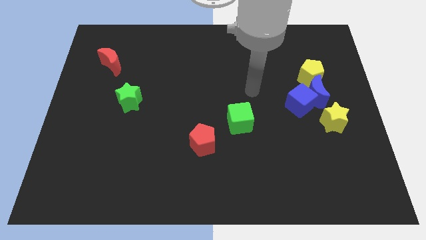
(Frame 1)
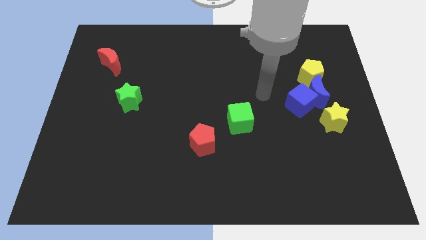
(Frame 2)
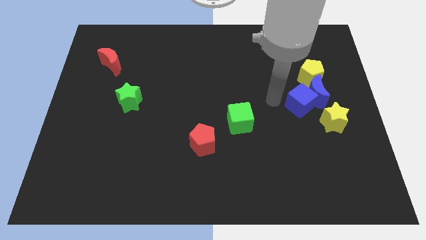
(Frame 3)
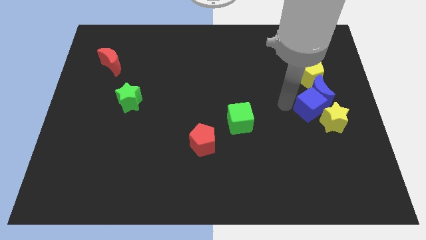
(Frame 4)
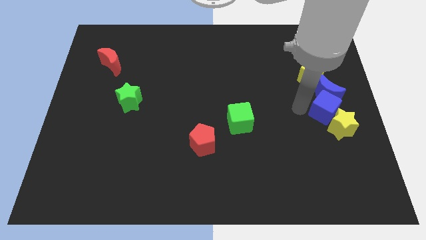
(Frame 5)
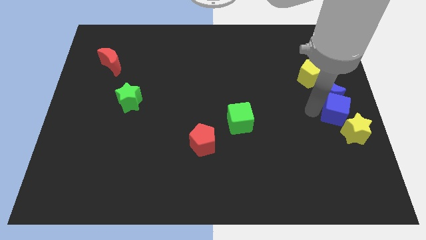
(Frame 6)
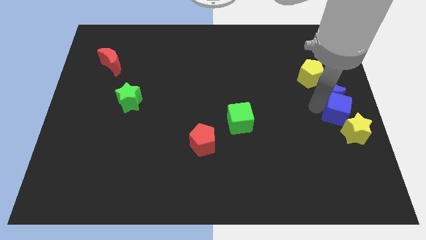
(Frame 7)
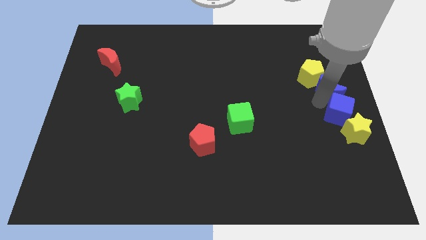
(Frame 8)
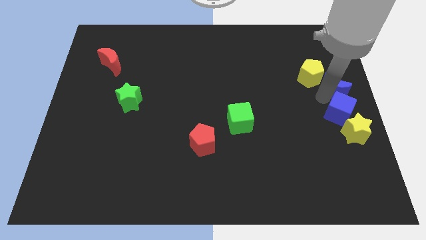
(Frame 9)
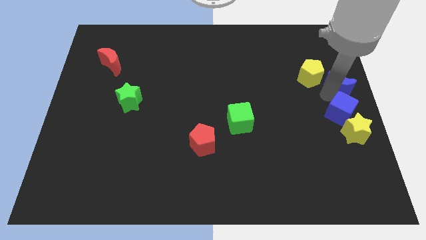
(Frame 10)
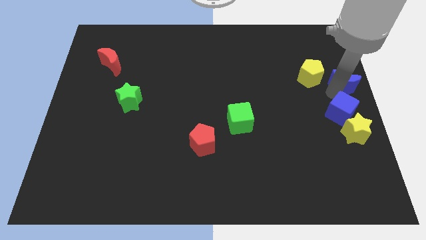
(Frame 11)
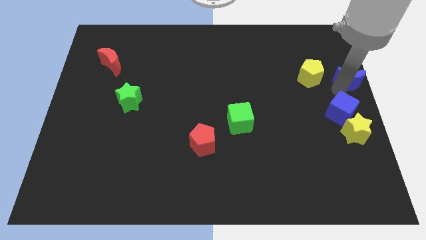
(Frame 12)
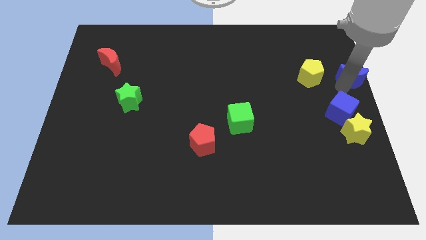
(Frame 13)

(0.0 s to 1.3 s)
separate the blue moon from the group of blocks

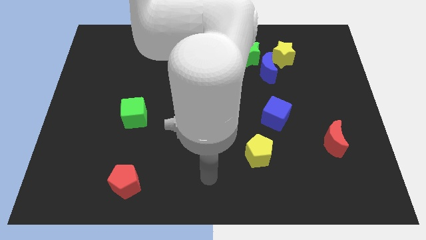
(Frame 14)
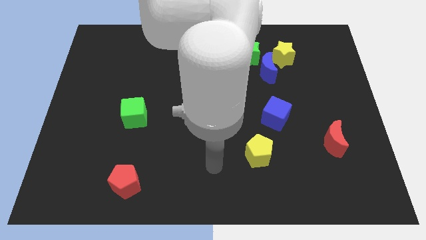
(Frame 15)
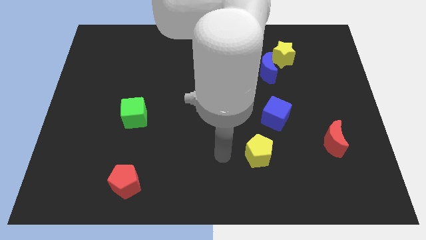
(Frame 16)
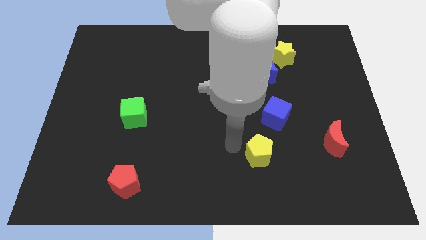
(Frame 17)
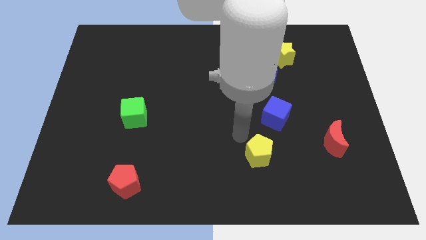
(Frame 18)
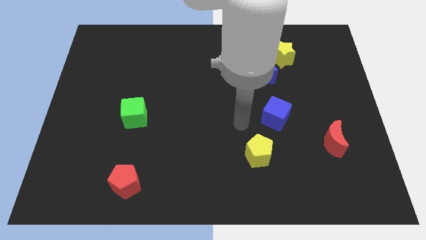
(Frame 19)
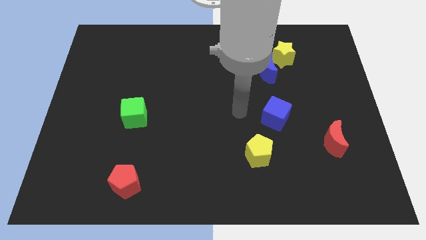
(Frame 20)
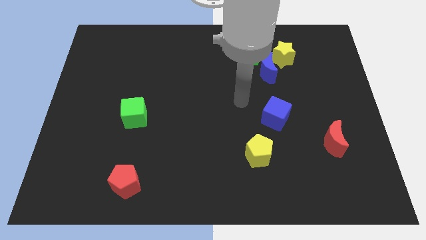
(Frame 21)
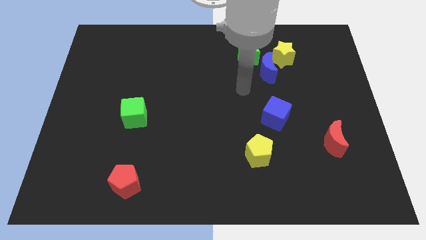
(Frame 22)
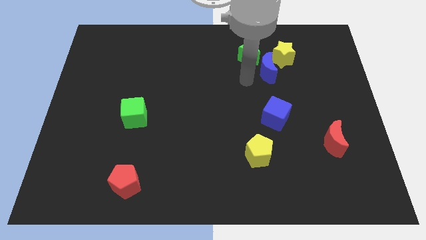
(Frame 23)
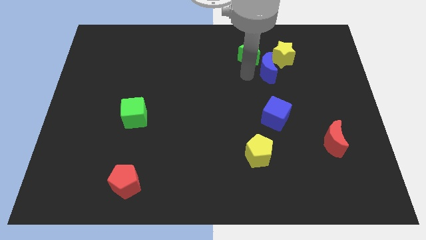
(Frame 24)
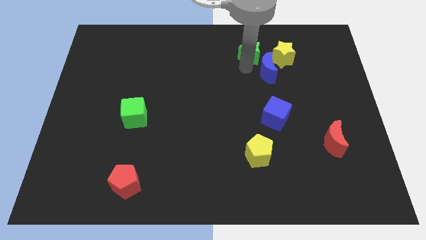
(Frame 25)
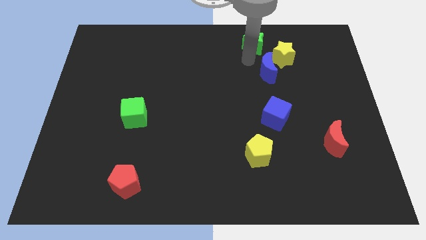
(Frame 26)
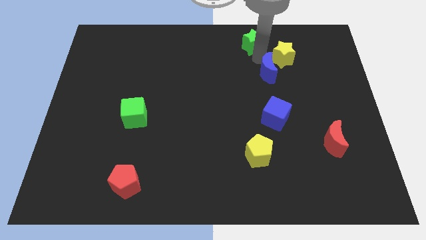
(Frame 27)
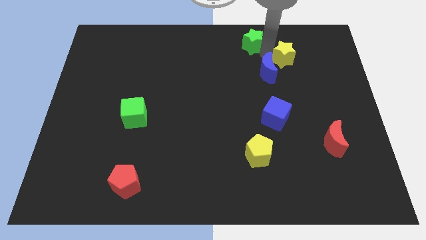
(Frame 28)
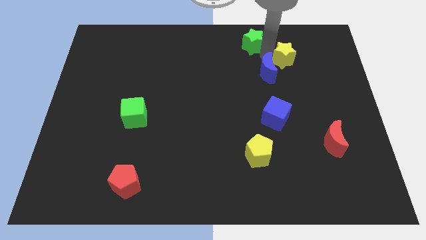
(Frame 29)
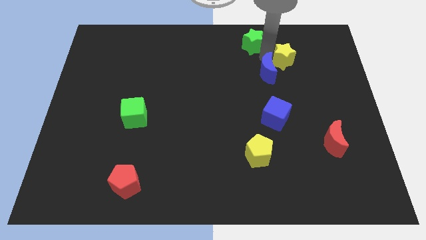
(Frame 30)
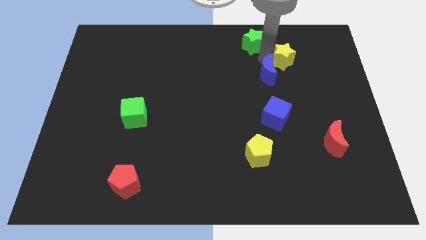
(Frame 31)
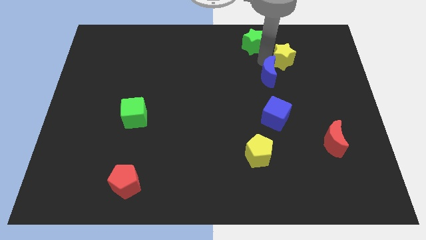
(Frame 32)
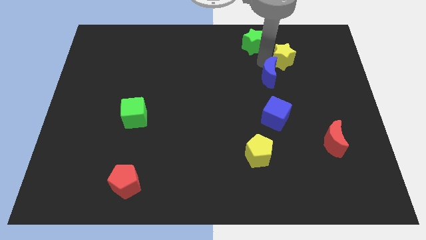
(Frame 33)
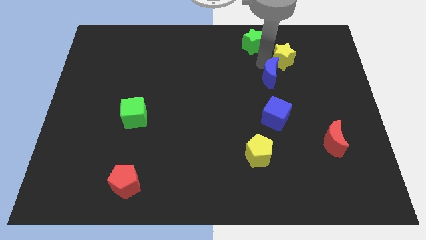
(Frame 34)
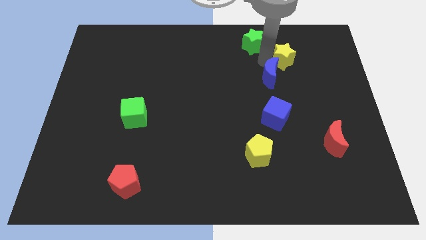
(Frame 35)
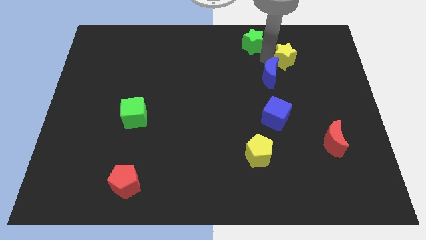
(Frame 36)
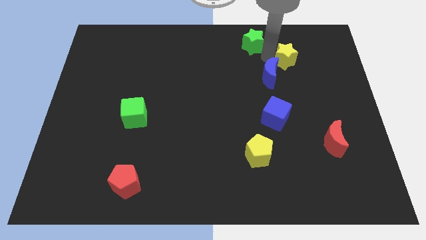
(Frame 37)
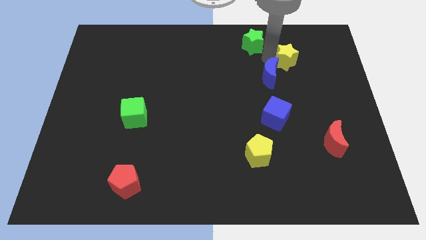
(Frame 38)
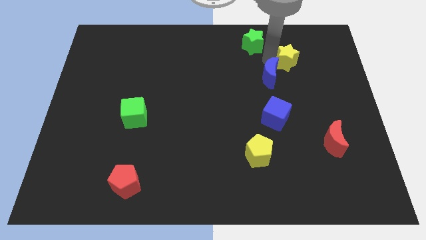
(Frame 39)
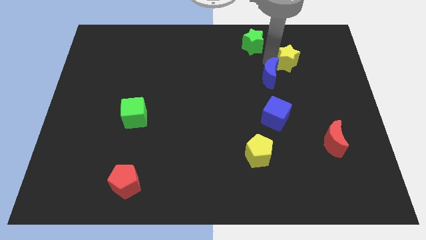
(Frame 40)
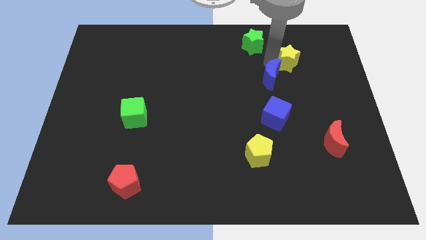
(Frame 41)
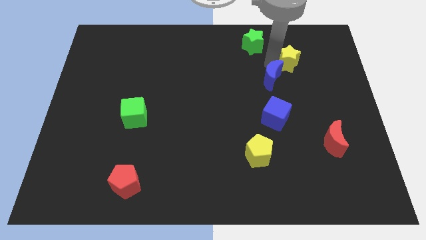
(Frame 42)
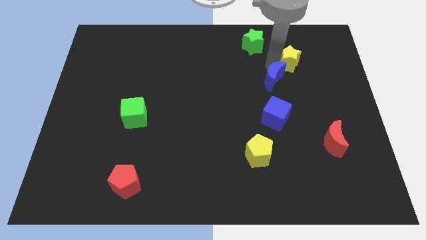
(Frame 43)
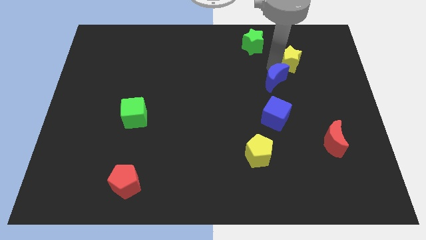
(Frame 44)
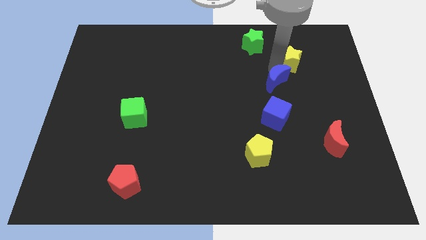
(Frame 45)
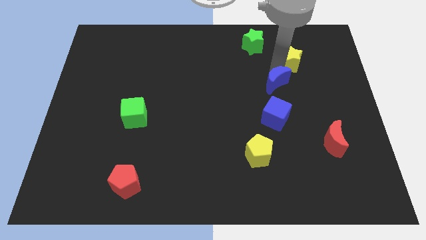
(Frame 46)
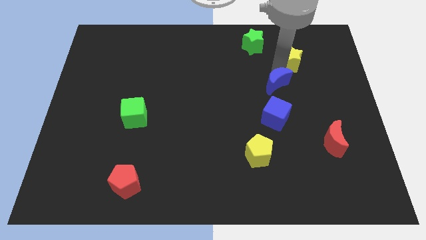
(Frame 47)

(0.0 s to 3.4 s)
move the blue moon away from the yellow star and green star

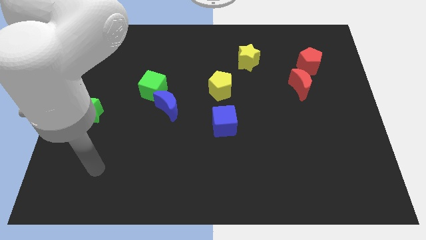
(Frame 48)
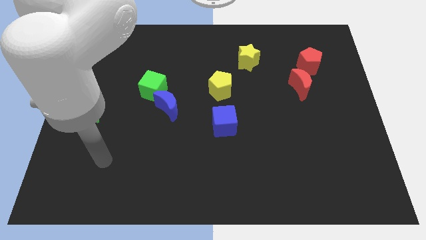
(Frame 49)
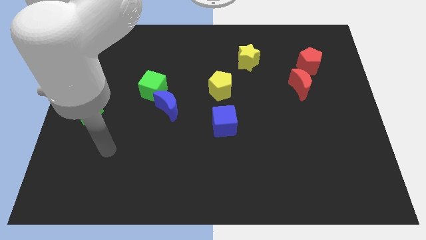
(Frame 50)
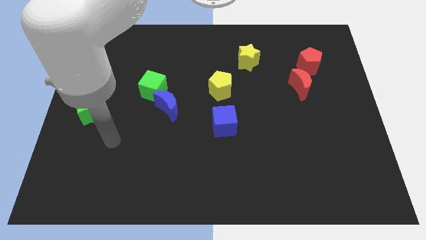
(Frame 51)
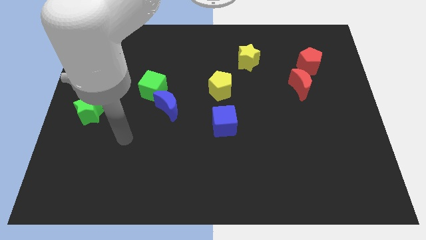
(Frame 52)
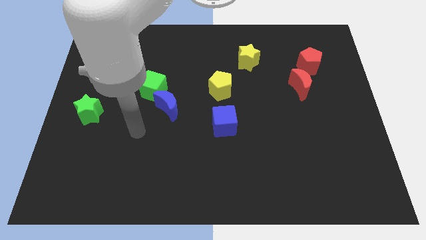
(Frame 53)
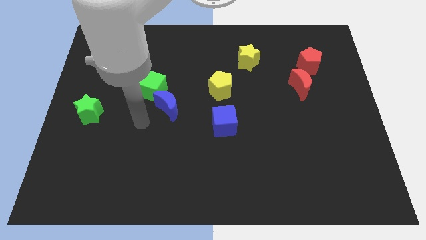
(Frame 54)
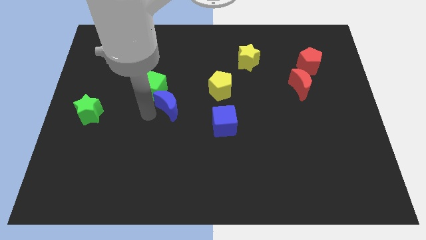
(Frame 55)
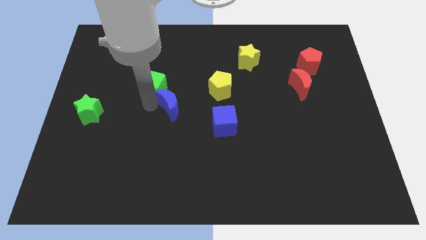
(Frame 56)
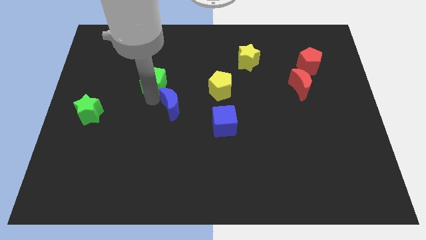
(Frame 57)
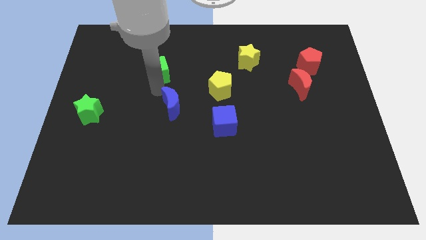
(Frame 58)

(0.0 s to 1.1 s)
separate the blue moon from the green cube

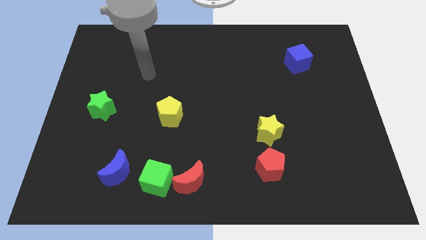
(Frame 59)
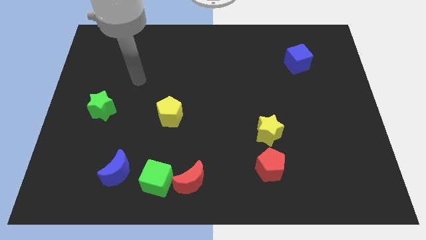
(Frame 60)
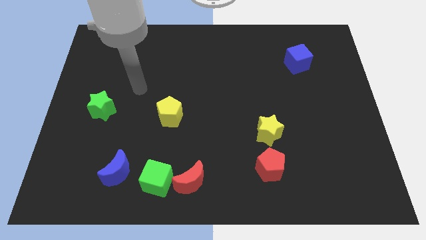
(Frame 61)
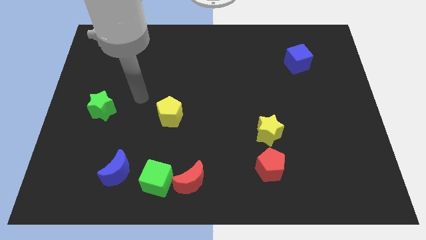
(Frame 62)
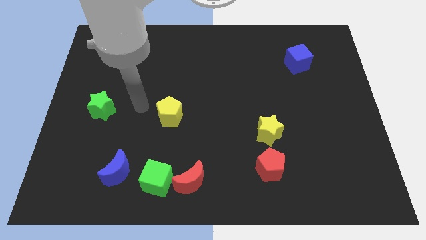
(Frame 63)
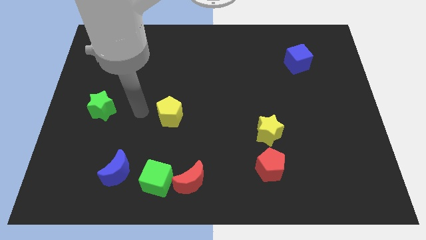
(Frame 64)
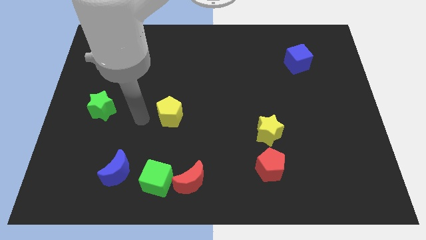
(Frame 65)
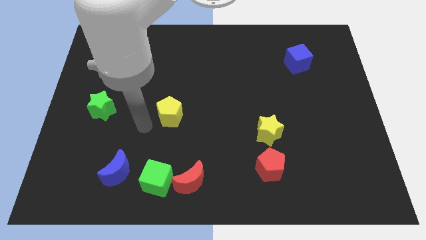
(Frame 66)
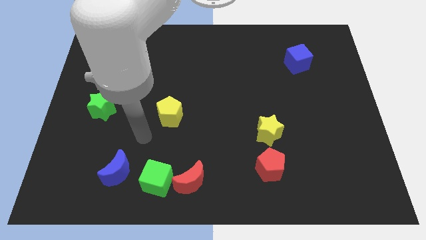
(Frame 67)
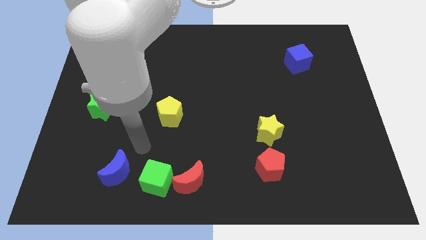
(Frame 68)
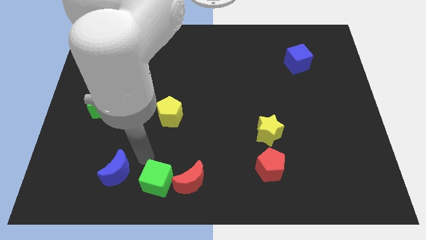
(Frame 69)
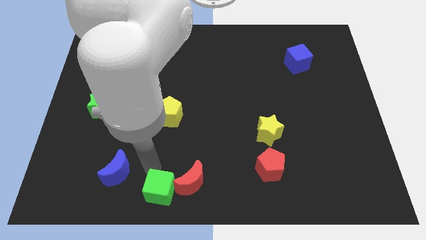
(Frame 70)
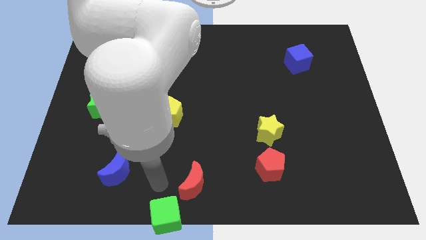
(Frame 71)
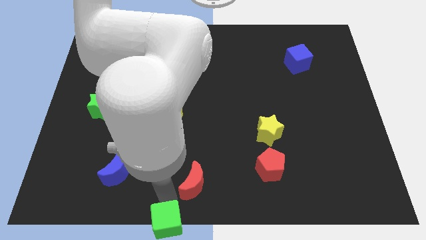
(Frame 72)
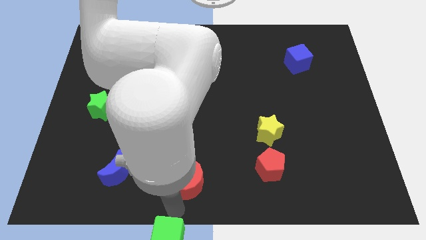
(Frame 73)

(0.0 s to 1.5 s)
move the red moon away from the green cube

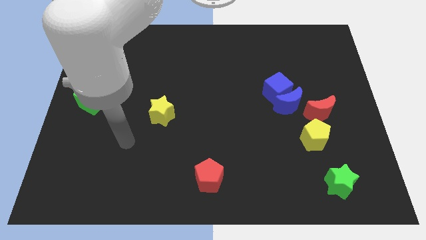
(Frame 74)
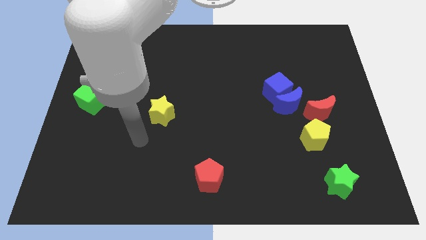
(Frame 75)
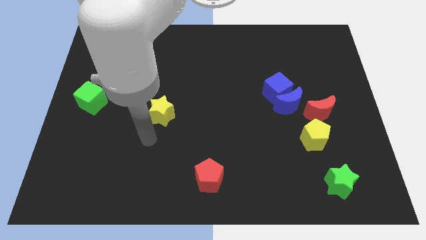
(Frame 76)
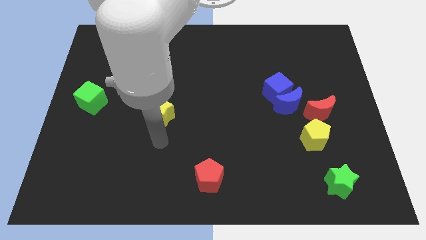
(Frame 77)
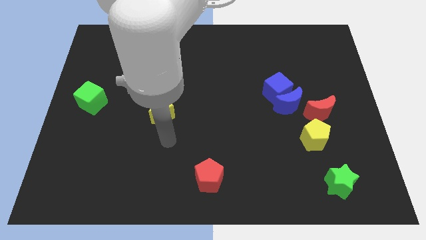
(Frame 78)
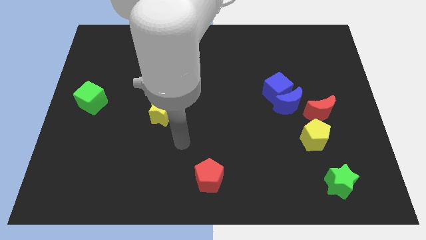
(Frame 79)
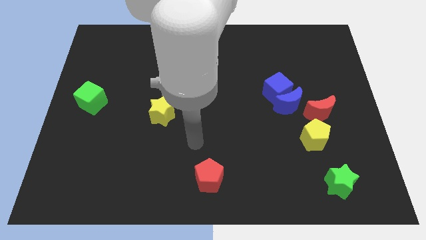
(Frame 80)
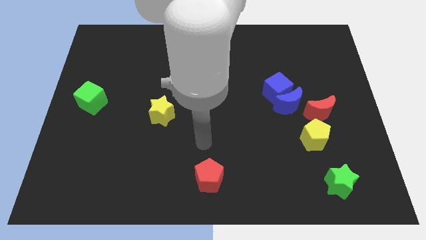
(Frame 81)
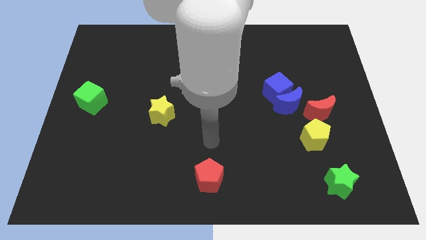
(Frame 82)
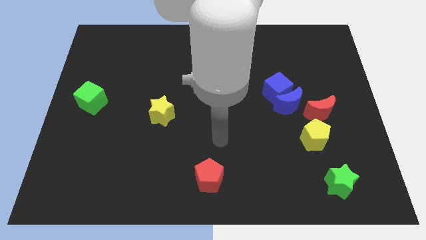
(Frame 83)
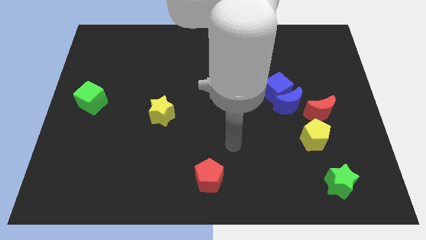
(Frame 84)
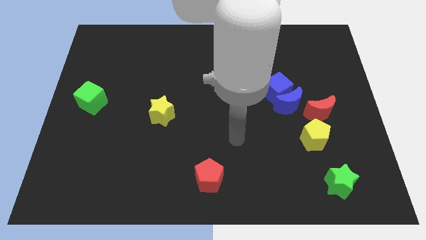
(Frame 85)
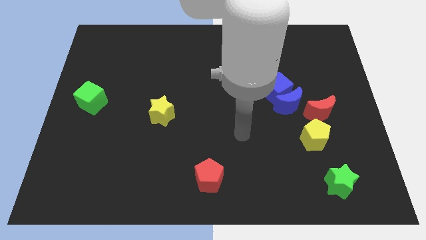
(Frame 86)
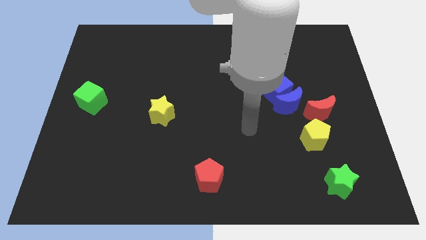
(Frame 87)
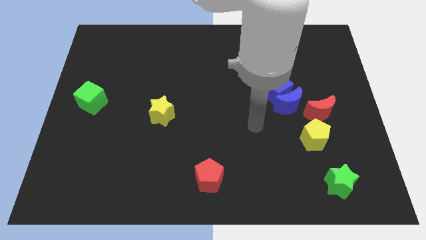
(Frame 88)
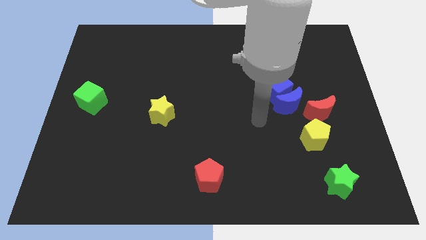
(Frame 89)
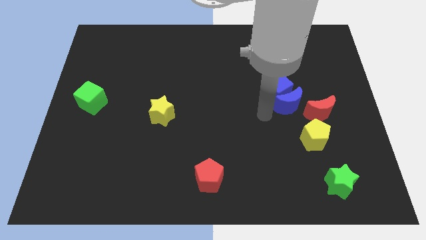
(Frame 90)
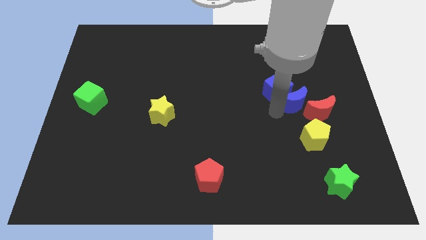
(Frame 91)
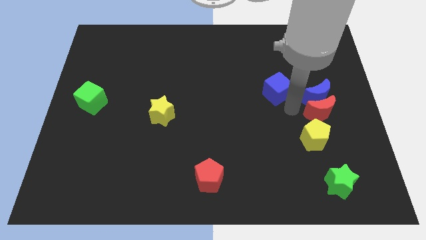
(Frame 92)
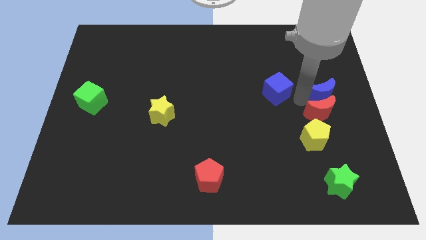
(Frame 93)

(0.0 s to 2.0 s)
pull the blue cube apart from the blue moon
